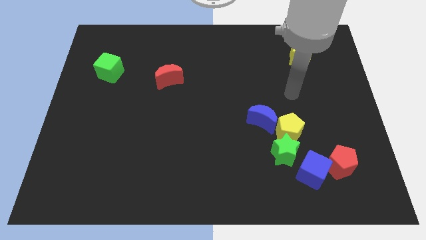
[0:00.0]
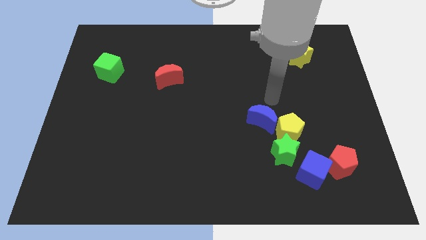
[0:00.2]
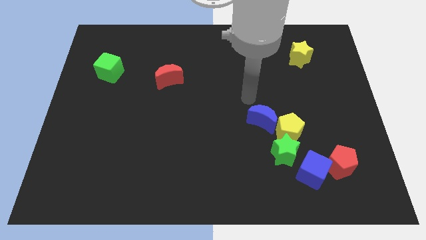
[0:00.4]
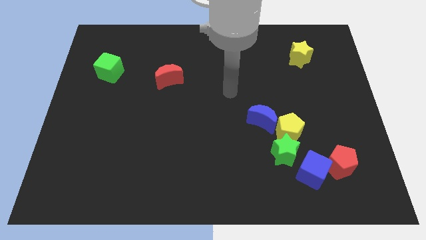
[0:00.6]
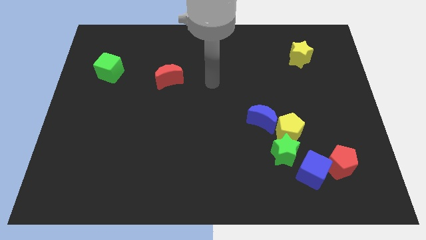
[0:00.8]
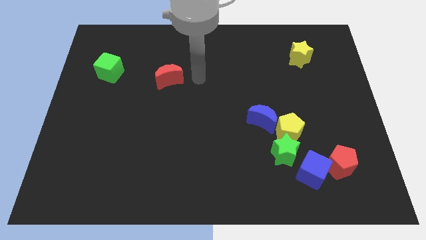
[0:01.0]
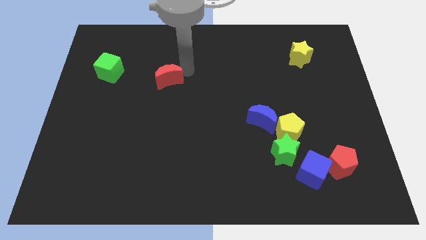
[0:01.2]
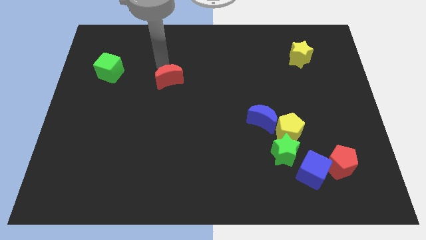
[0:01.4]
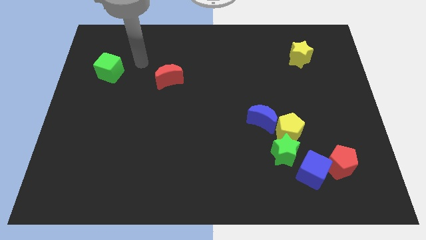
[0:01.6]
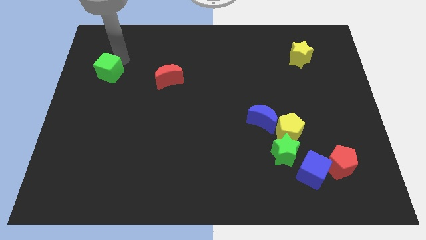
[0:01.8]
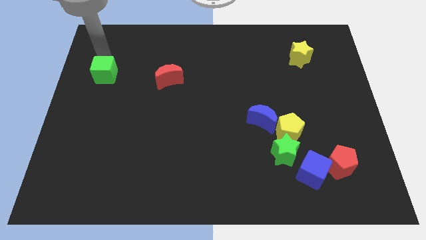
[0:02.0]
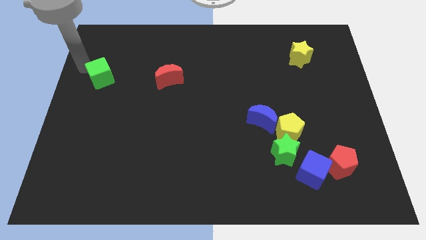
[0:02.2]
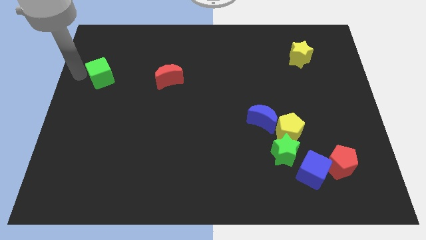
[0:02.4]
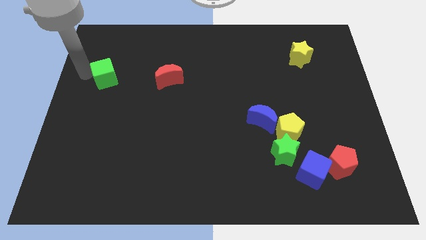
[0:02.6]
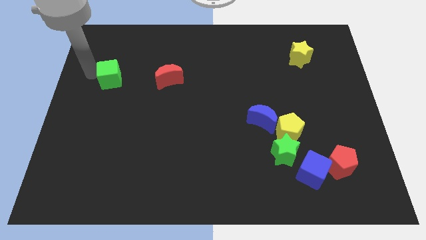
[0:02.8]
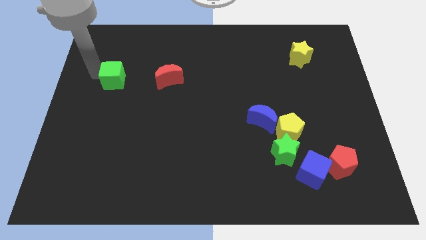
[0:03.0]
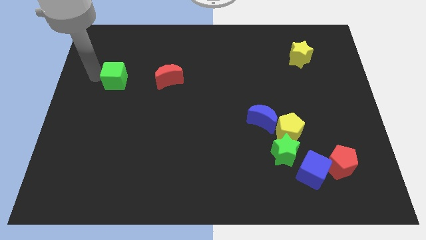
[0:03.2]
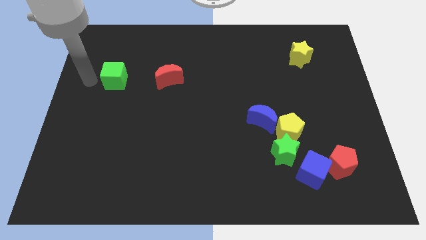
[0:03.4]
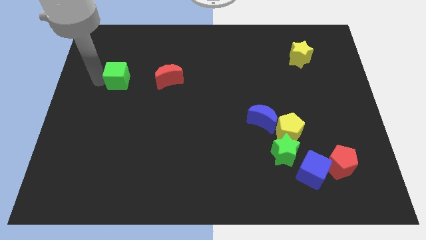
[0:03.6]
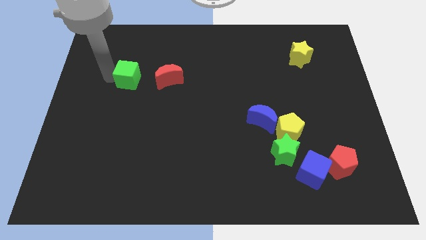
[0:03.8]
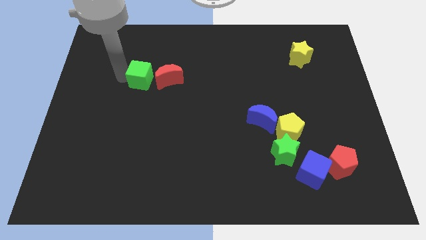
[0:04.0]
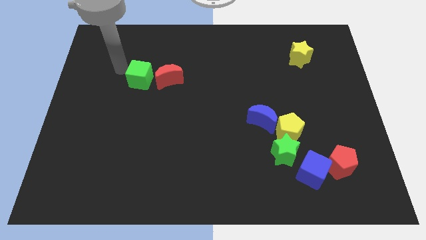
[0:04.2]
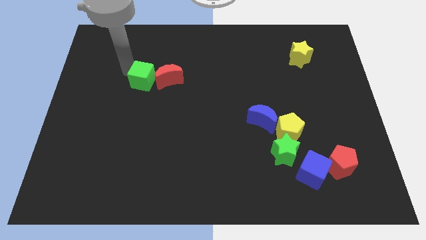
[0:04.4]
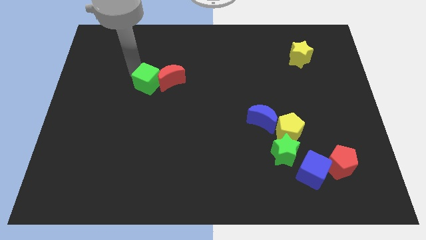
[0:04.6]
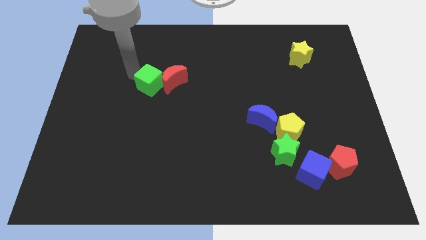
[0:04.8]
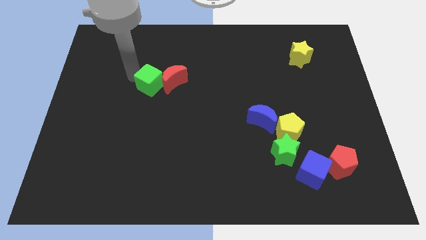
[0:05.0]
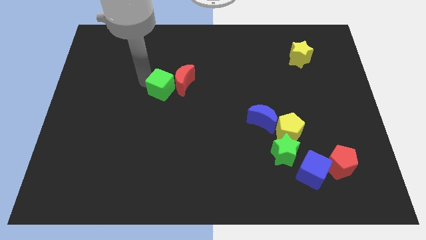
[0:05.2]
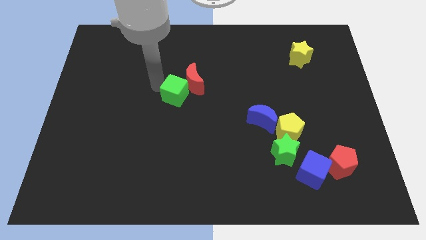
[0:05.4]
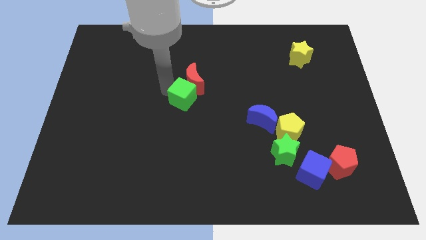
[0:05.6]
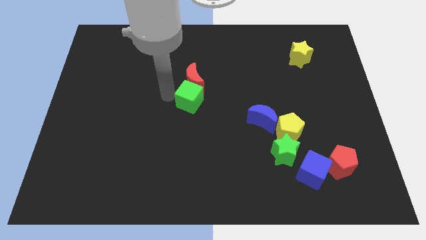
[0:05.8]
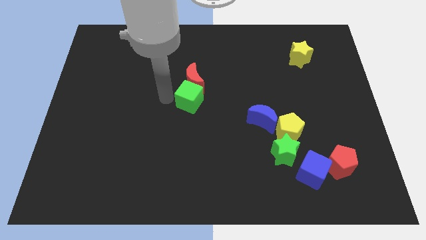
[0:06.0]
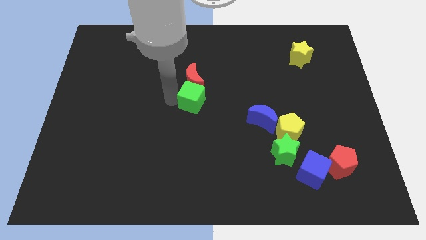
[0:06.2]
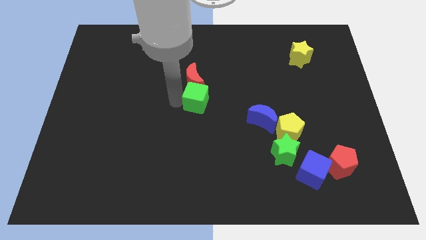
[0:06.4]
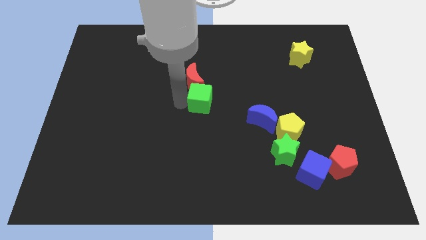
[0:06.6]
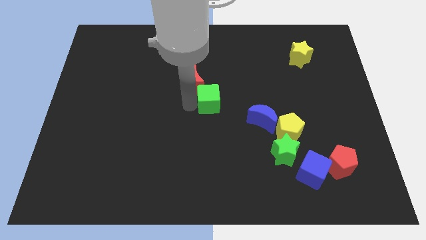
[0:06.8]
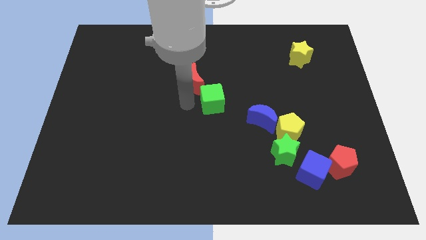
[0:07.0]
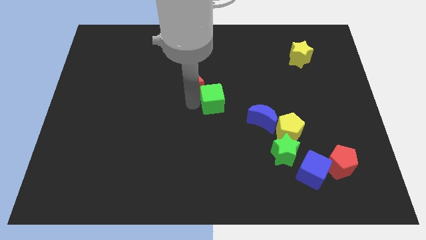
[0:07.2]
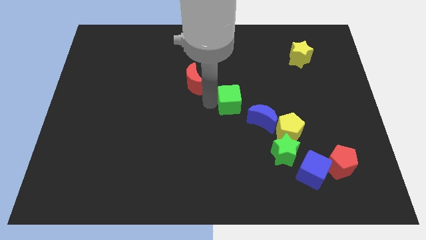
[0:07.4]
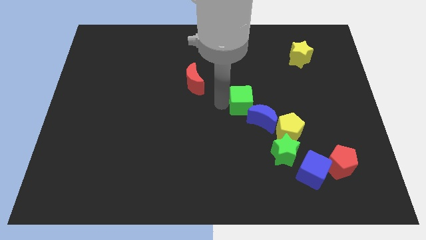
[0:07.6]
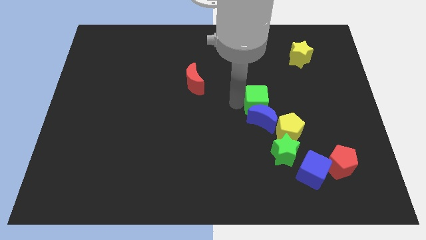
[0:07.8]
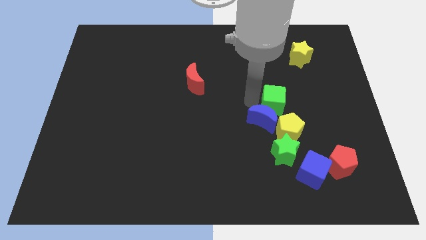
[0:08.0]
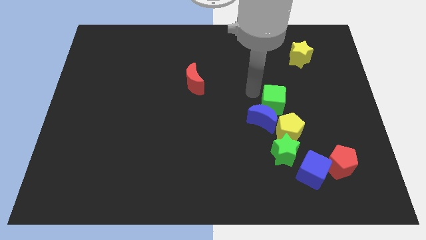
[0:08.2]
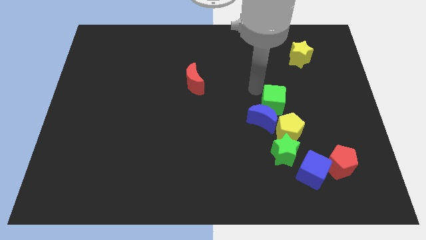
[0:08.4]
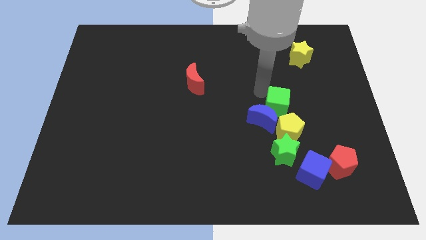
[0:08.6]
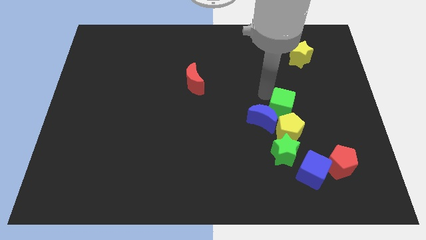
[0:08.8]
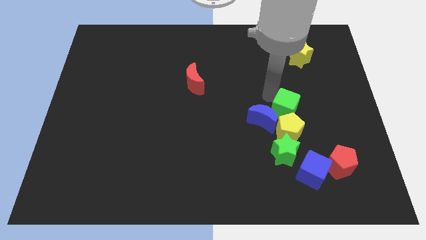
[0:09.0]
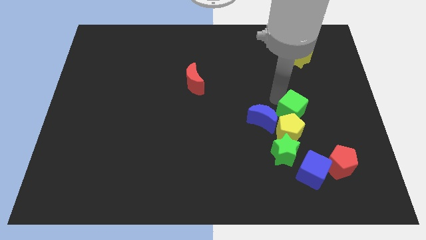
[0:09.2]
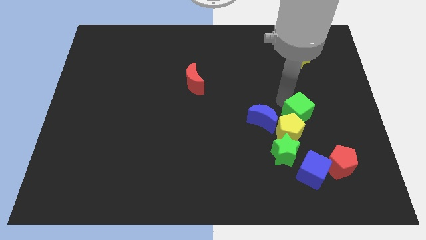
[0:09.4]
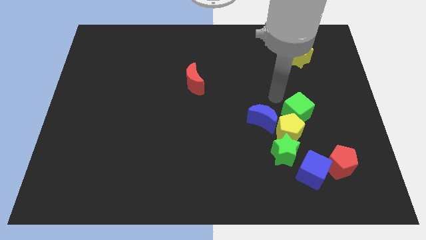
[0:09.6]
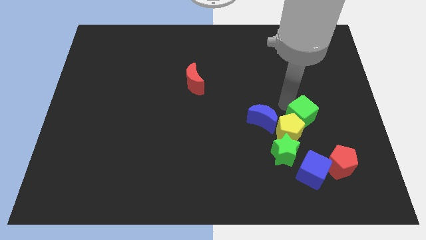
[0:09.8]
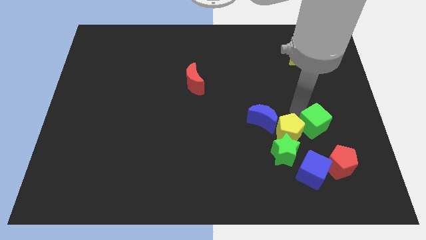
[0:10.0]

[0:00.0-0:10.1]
slide the green cube to the top left of the red pentagon

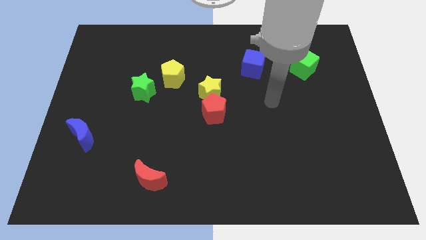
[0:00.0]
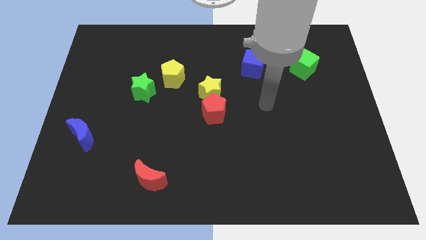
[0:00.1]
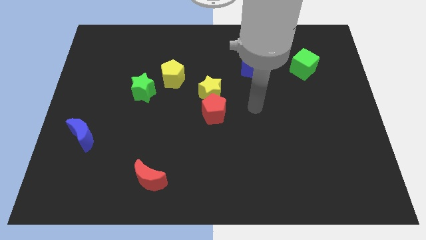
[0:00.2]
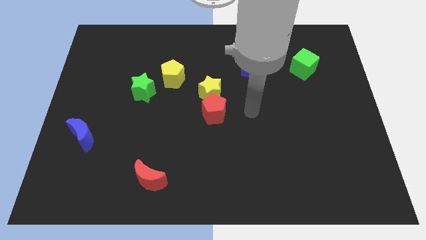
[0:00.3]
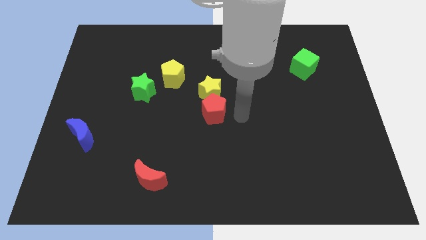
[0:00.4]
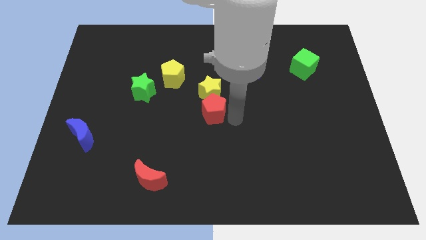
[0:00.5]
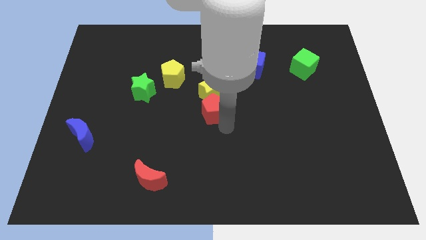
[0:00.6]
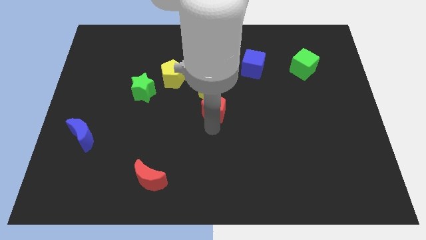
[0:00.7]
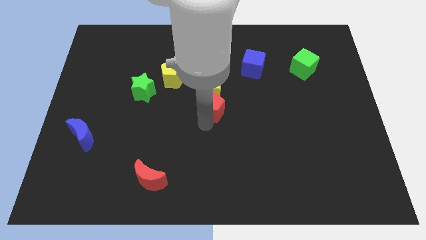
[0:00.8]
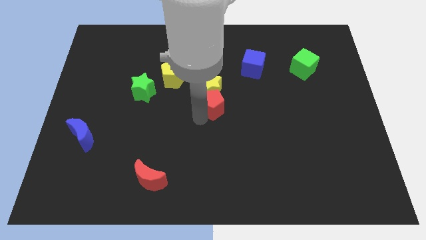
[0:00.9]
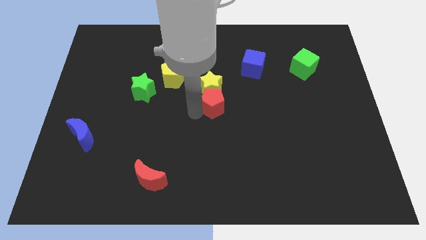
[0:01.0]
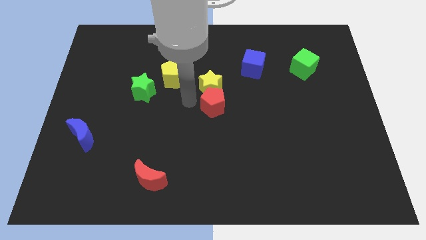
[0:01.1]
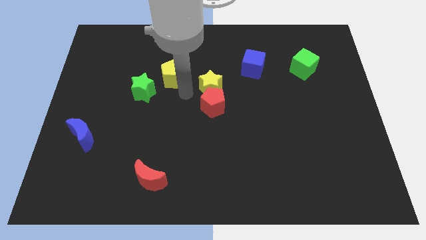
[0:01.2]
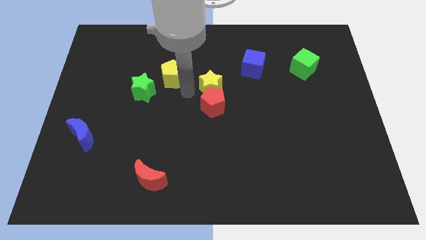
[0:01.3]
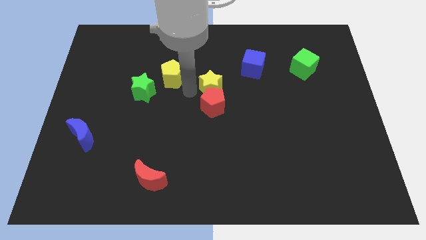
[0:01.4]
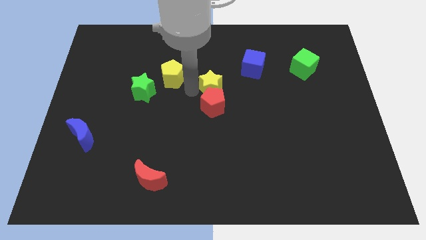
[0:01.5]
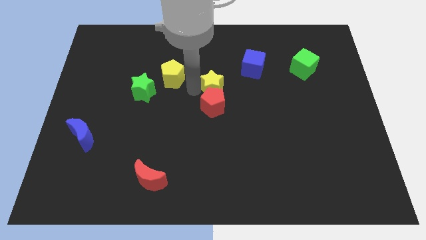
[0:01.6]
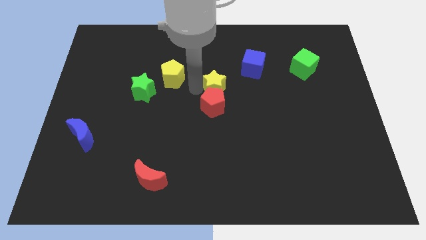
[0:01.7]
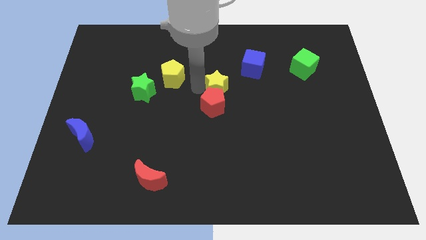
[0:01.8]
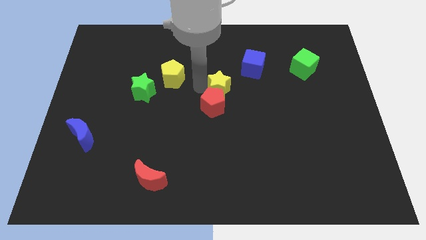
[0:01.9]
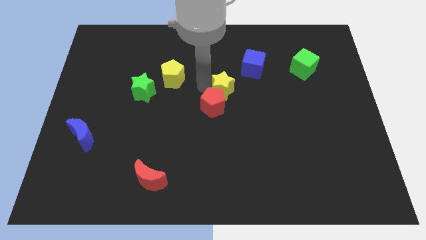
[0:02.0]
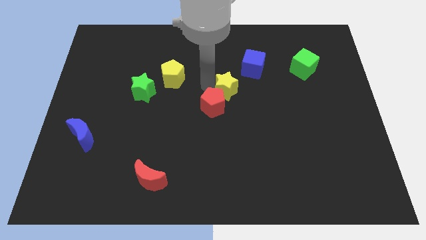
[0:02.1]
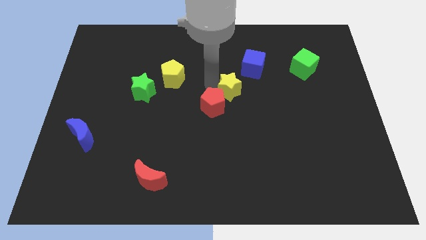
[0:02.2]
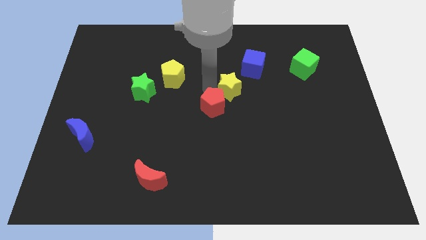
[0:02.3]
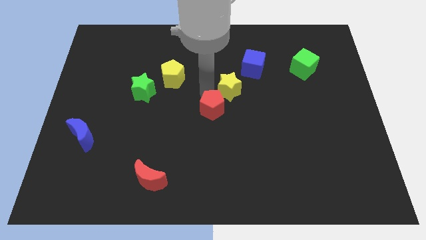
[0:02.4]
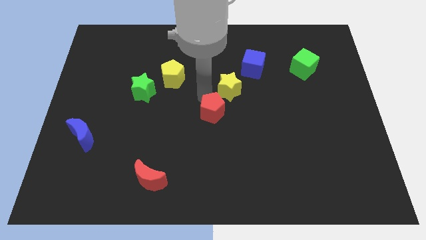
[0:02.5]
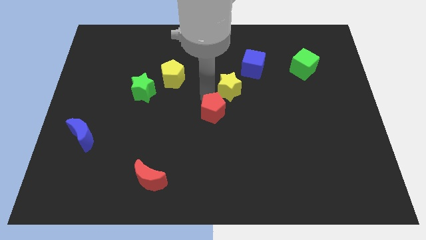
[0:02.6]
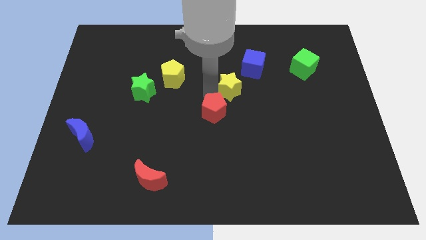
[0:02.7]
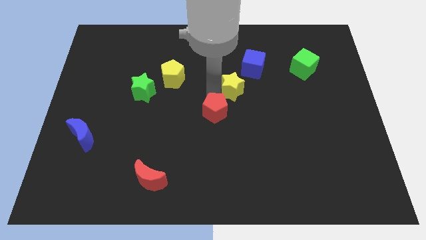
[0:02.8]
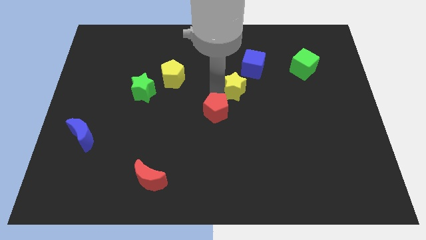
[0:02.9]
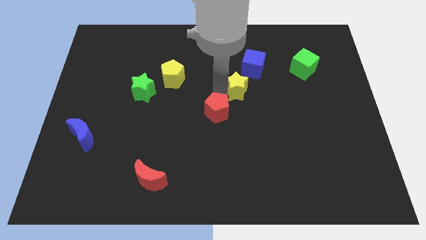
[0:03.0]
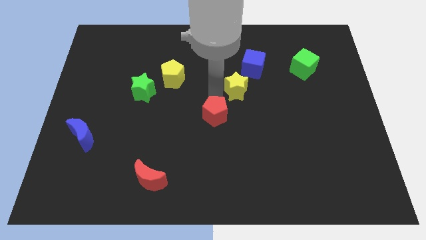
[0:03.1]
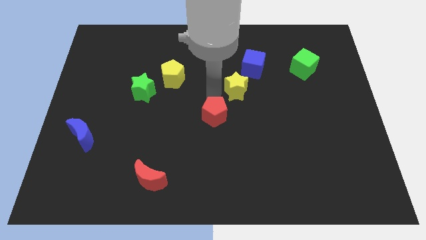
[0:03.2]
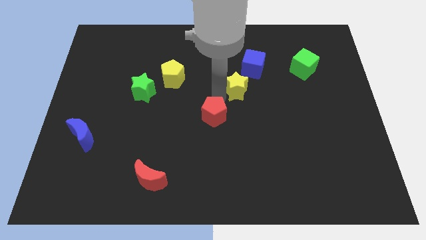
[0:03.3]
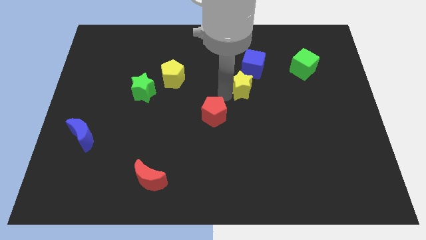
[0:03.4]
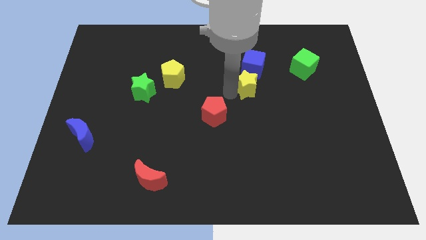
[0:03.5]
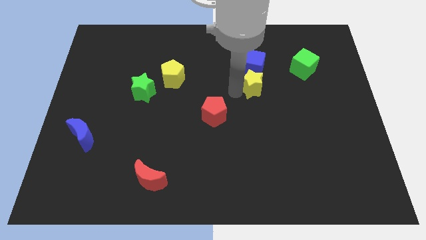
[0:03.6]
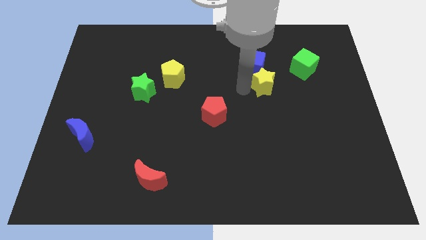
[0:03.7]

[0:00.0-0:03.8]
put the yellow star diagonally down and to the left of the green cube
